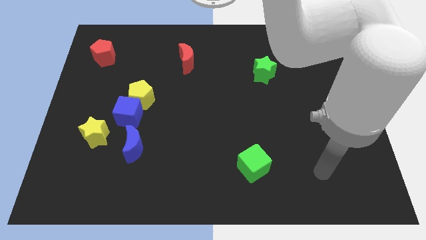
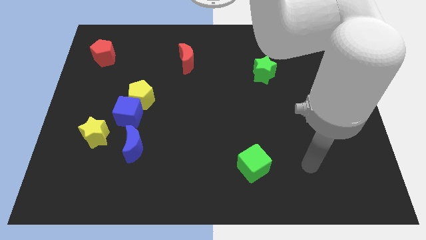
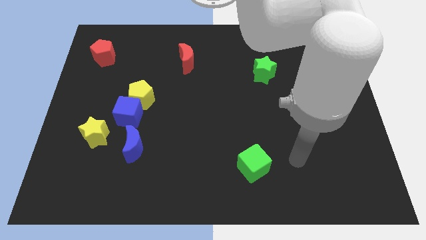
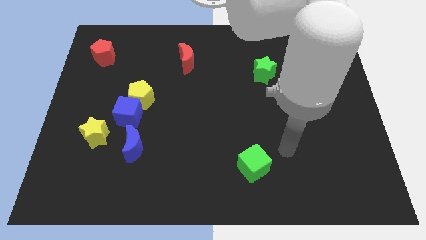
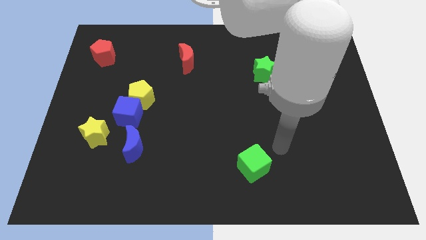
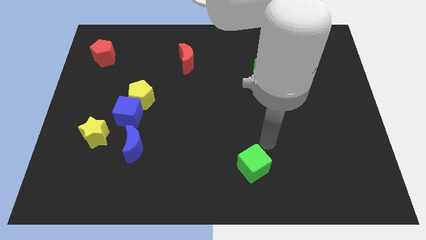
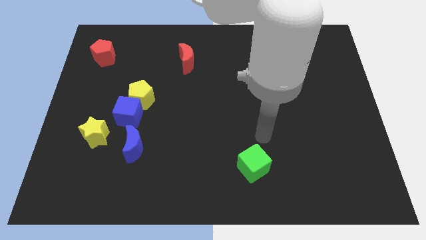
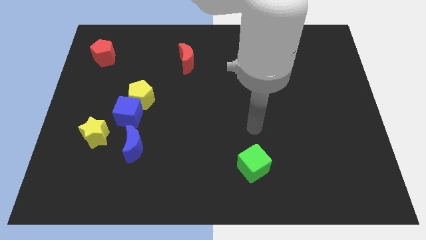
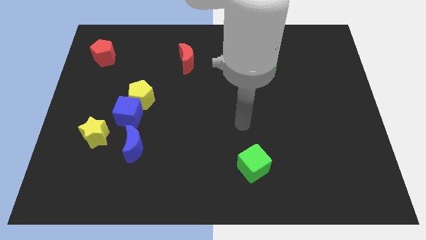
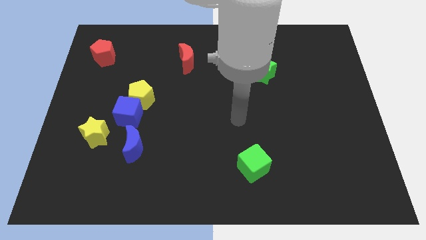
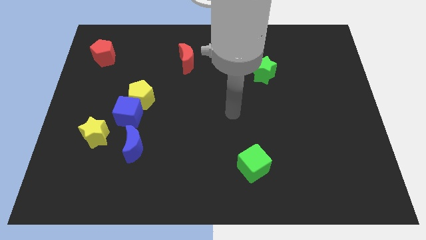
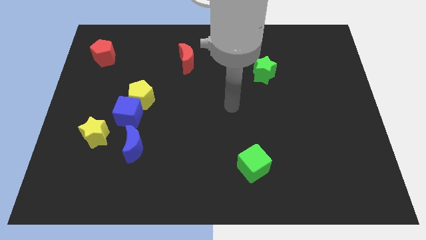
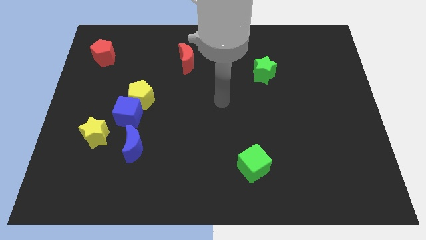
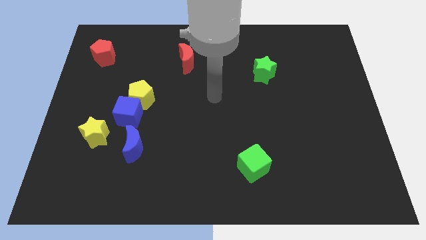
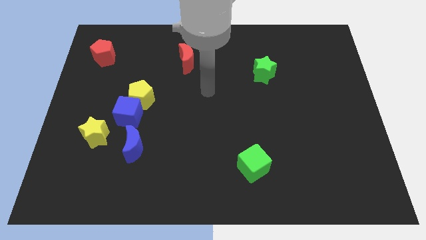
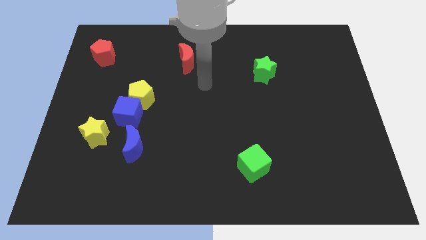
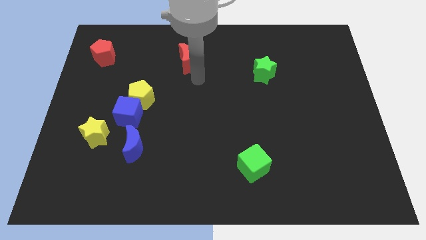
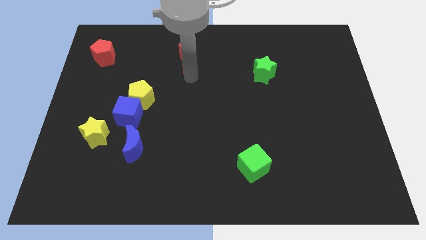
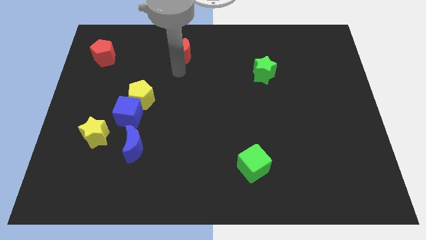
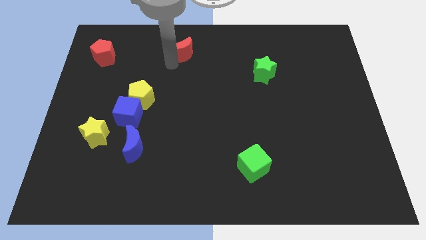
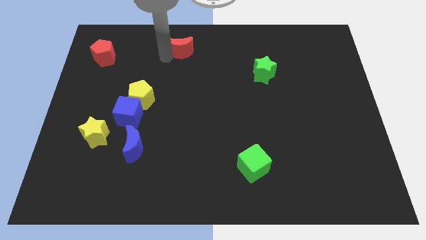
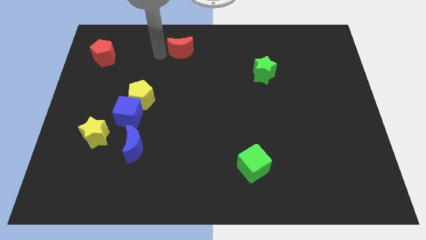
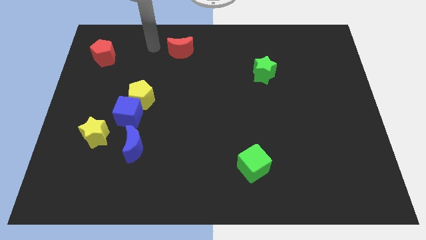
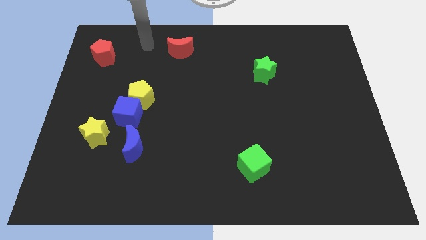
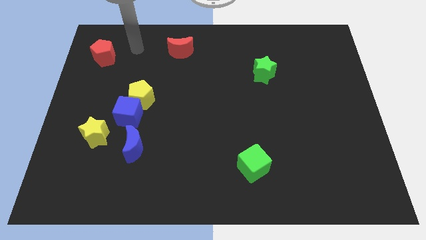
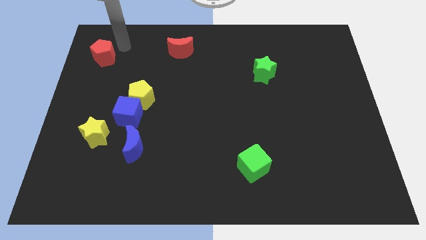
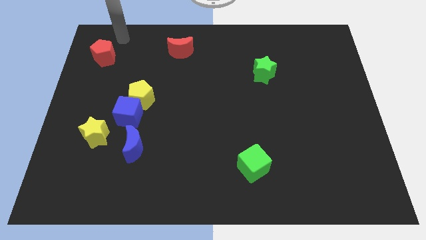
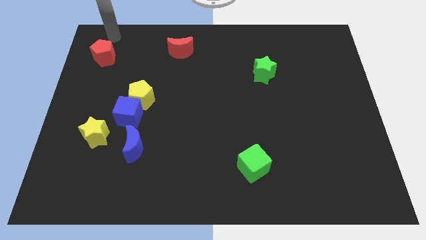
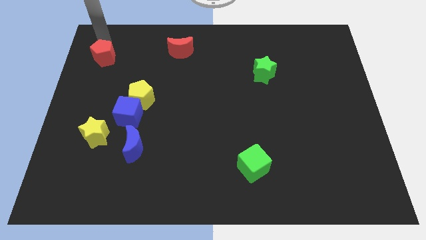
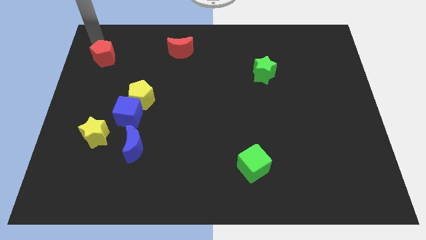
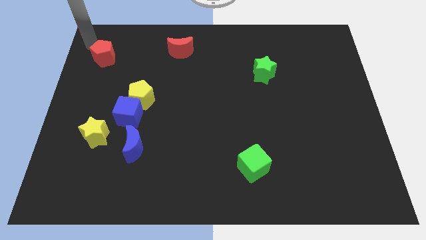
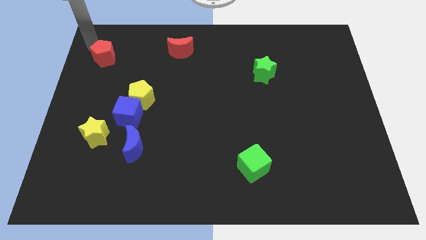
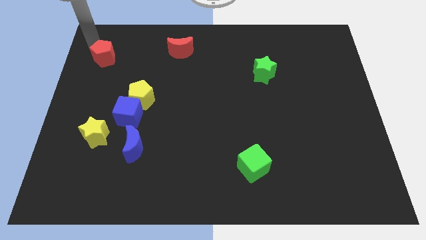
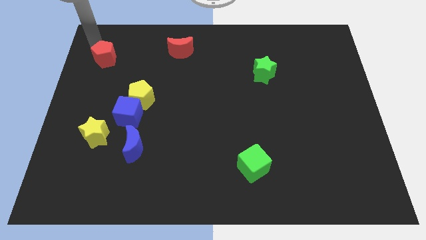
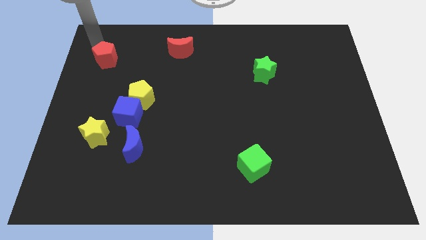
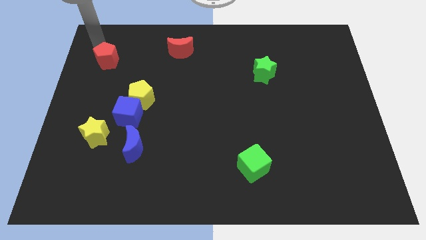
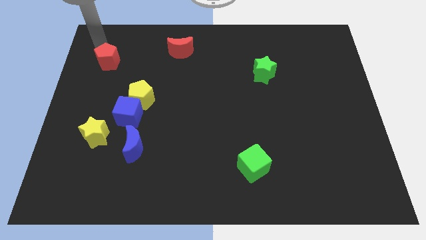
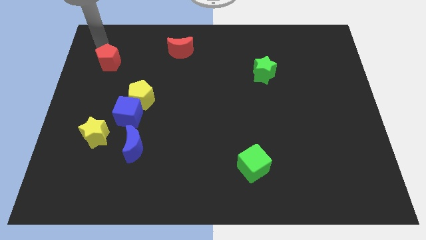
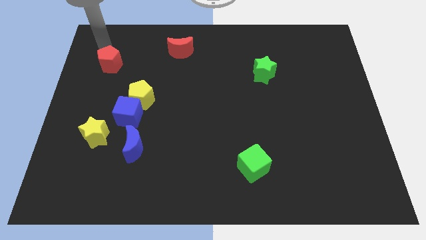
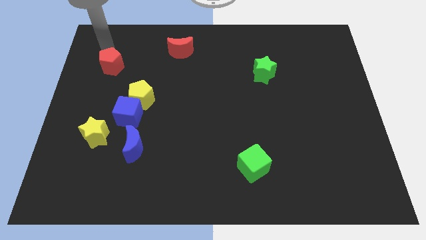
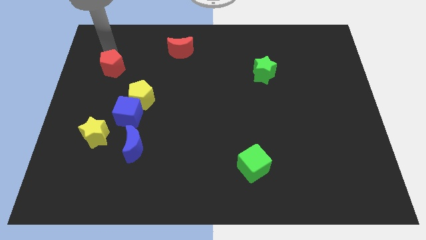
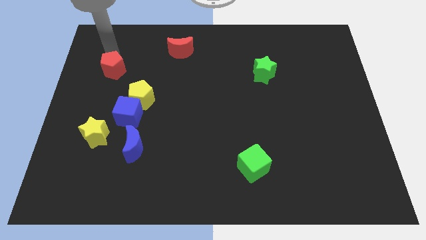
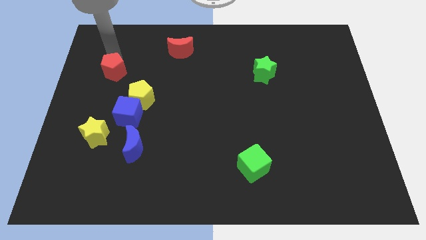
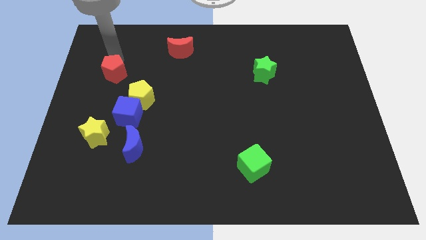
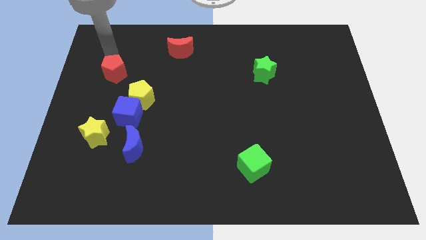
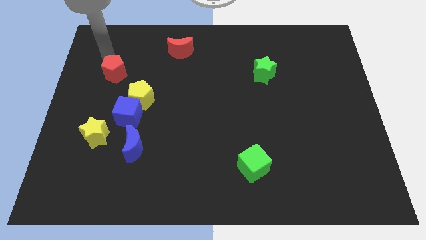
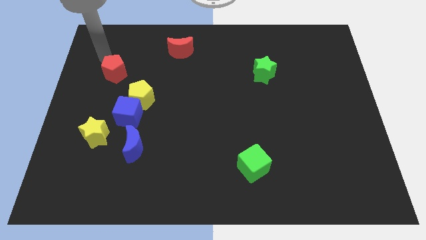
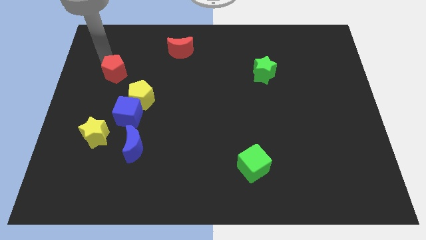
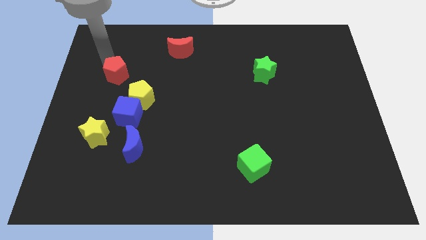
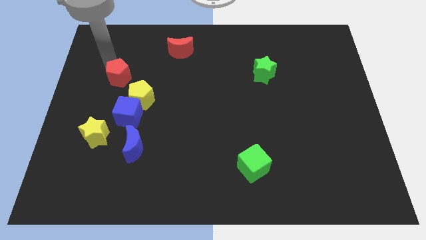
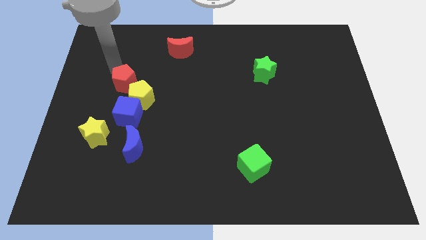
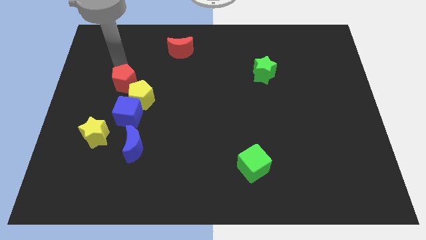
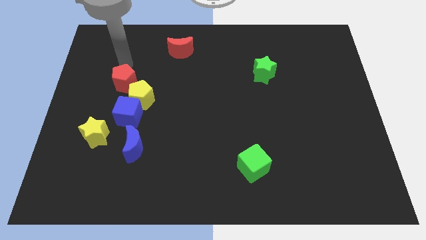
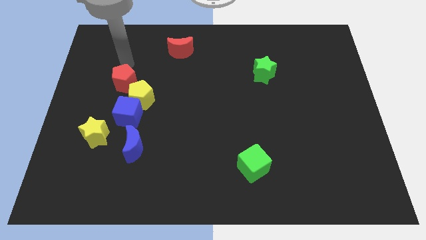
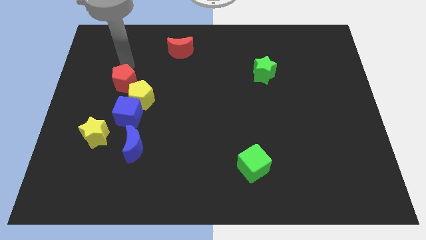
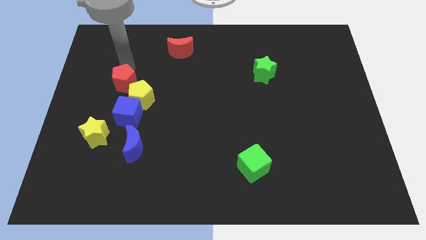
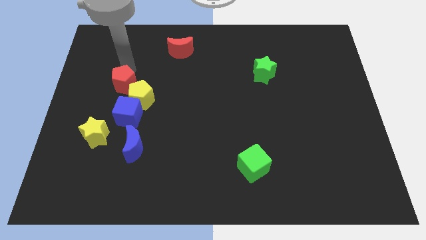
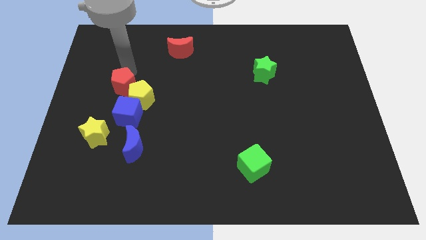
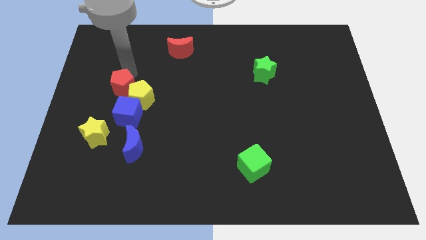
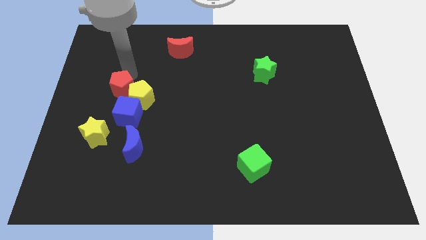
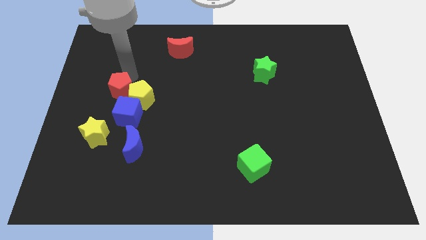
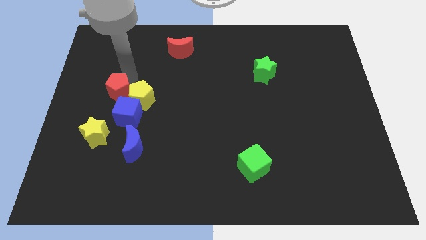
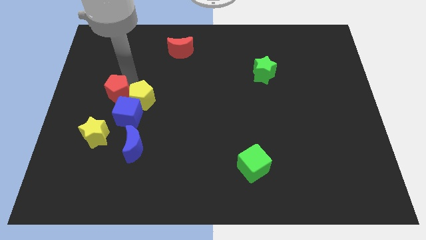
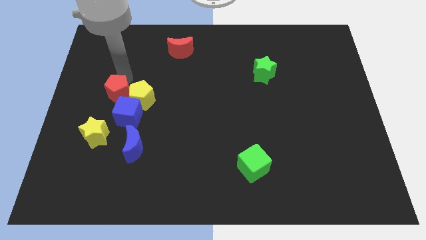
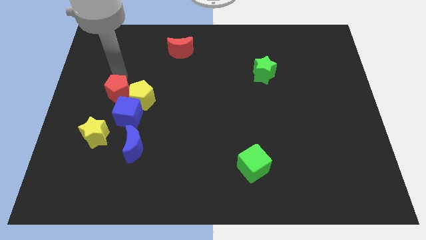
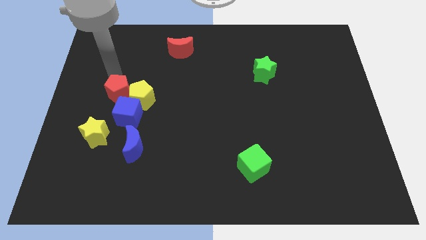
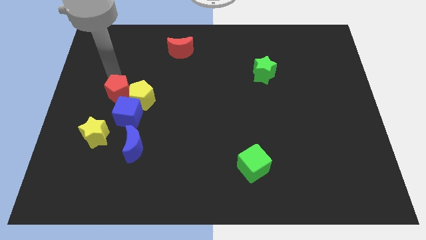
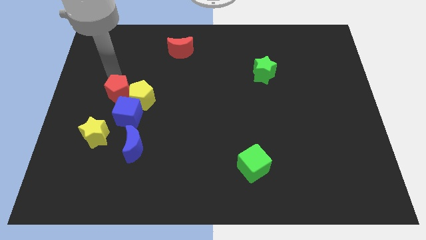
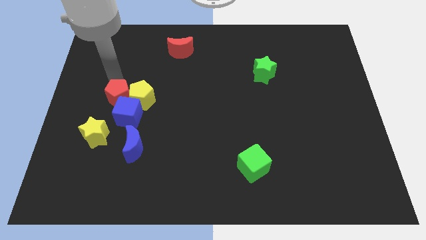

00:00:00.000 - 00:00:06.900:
move the red pentagon towards the blue cube
